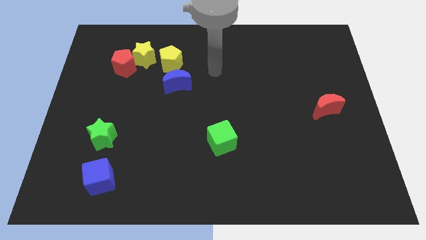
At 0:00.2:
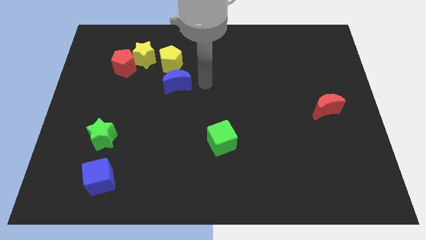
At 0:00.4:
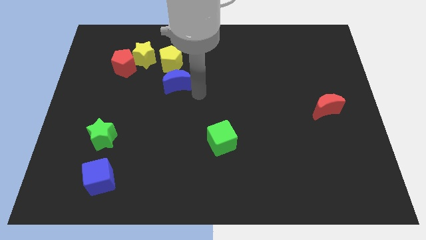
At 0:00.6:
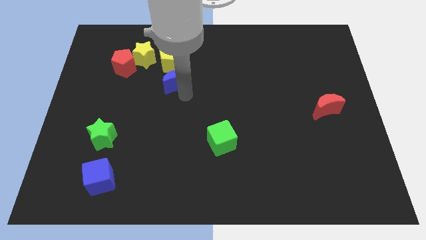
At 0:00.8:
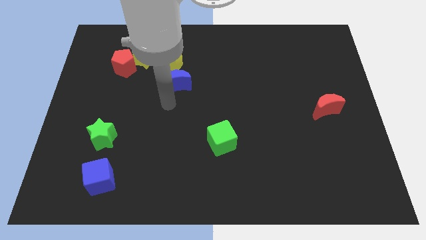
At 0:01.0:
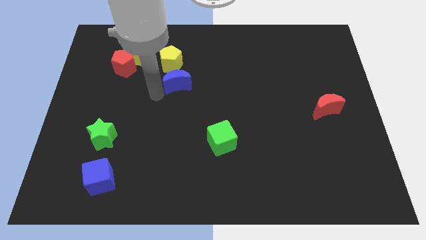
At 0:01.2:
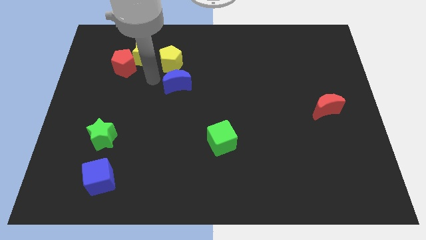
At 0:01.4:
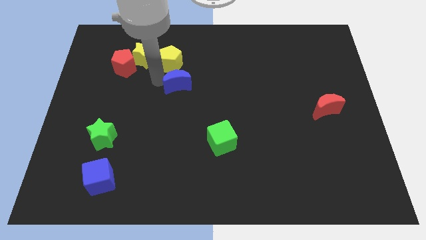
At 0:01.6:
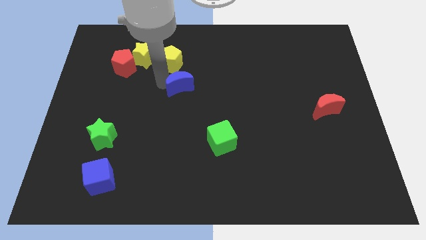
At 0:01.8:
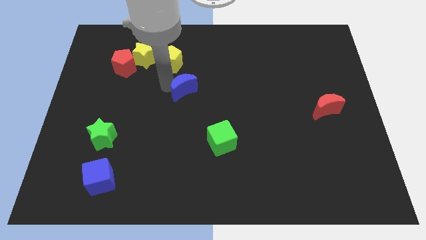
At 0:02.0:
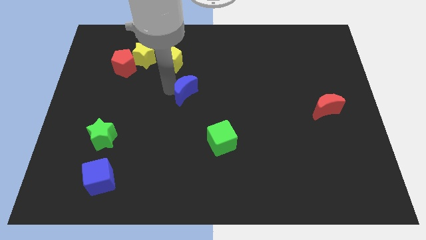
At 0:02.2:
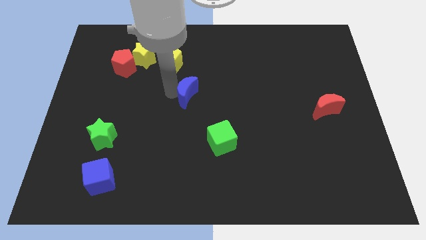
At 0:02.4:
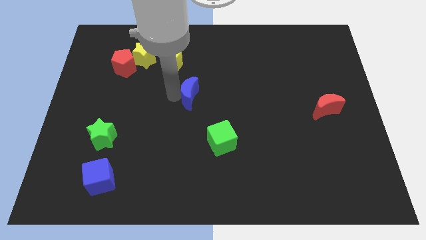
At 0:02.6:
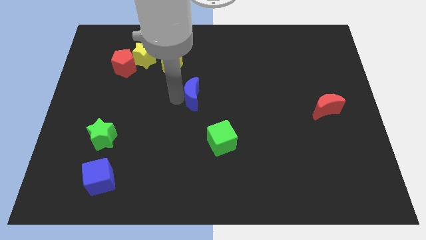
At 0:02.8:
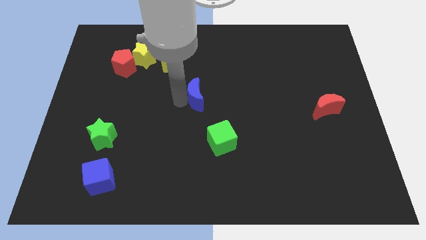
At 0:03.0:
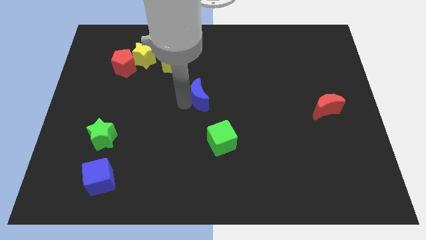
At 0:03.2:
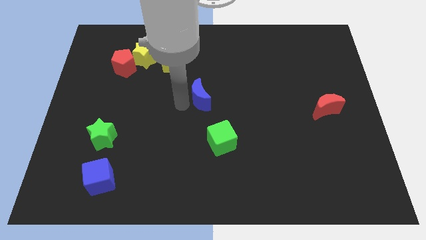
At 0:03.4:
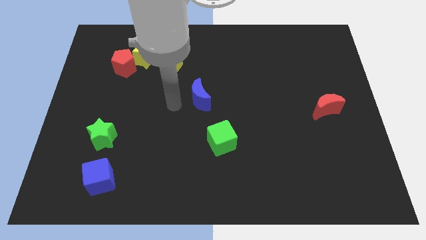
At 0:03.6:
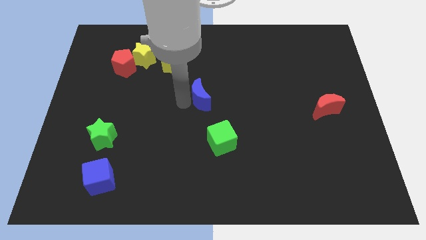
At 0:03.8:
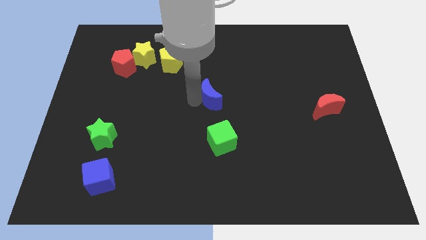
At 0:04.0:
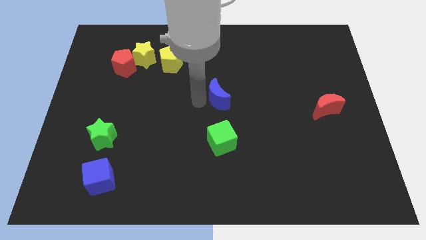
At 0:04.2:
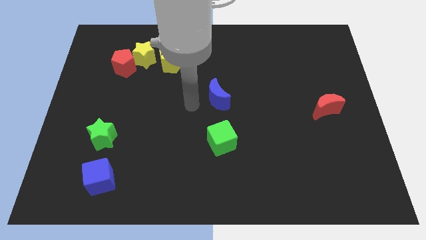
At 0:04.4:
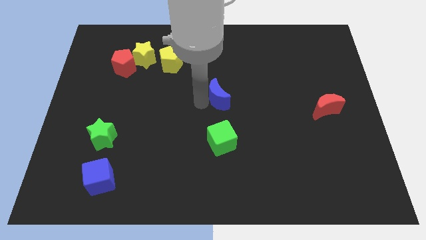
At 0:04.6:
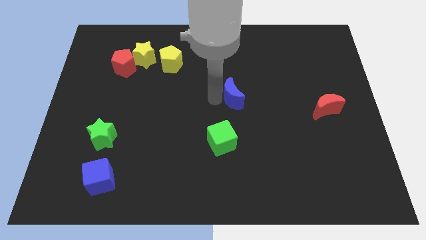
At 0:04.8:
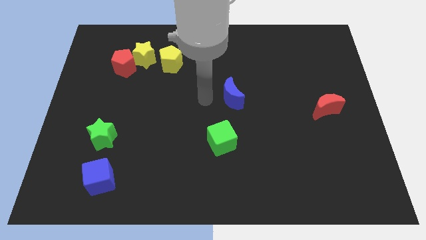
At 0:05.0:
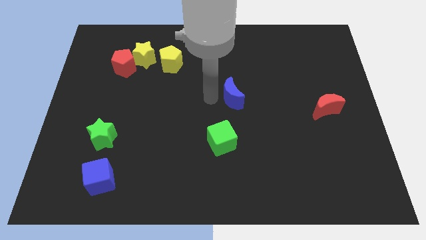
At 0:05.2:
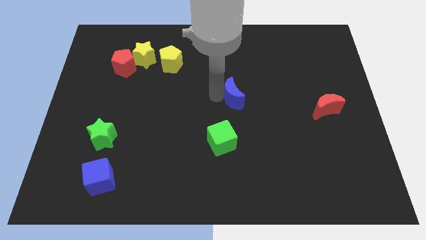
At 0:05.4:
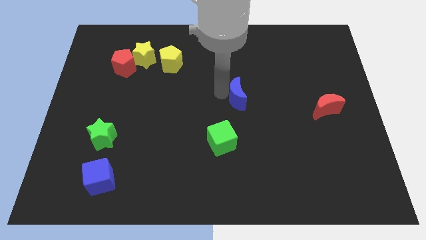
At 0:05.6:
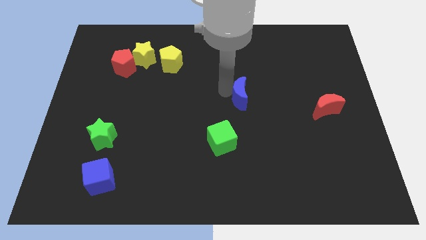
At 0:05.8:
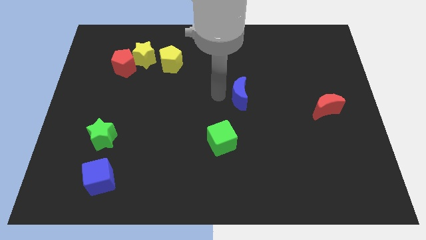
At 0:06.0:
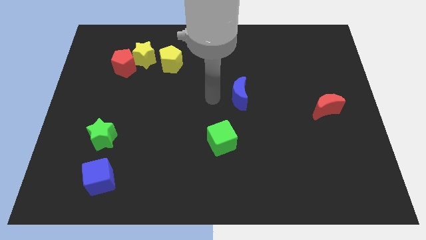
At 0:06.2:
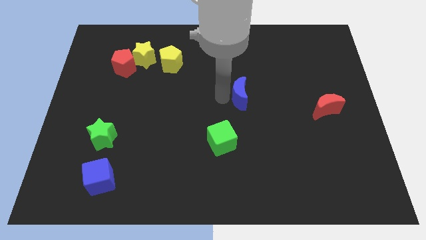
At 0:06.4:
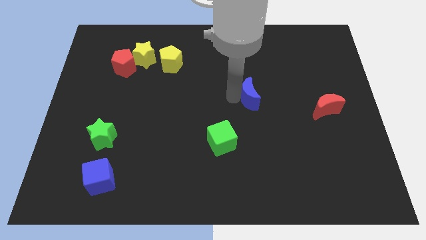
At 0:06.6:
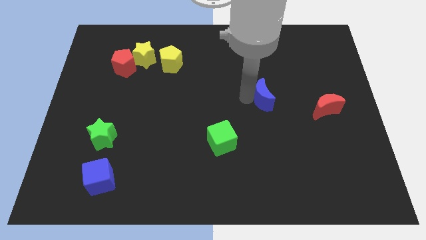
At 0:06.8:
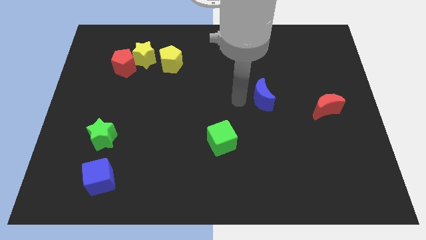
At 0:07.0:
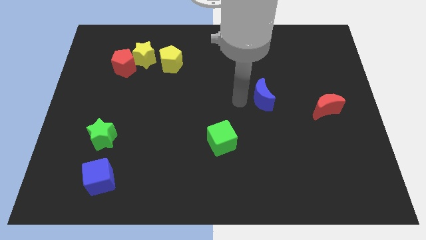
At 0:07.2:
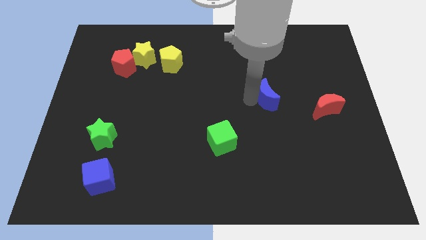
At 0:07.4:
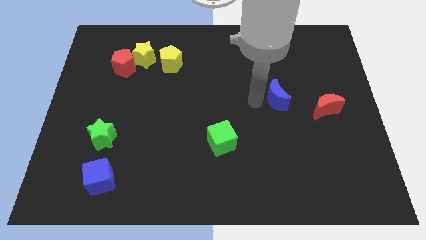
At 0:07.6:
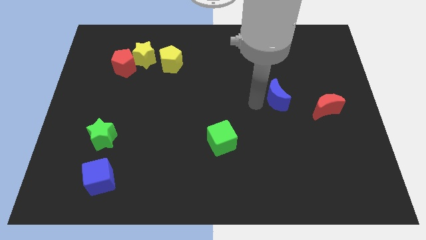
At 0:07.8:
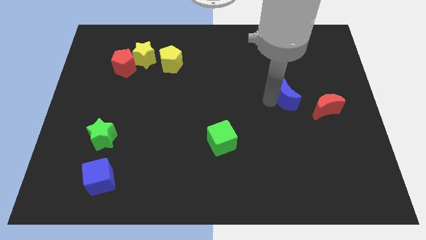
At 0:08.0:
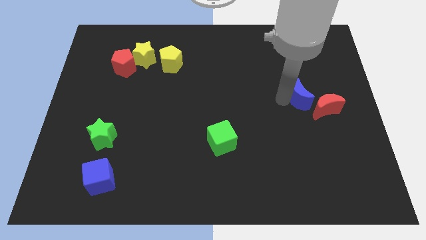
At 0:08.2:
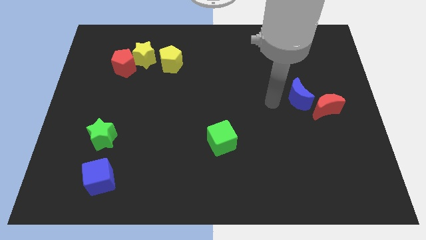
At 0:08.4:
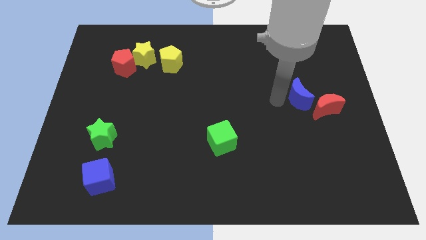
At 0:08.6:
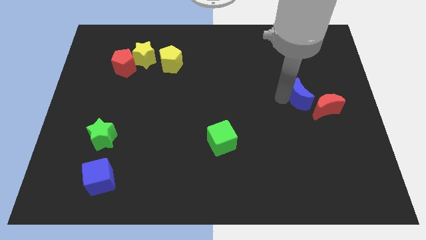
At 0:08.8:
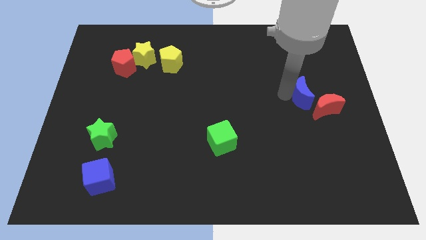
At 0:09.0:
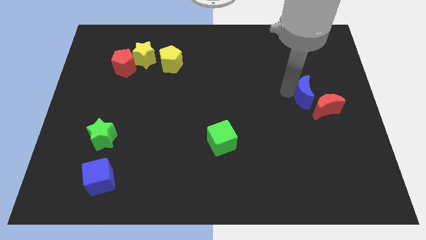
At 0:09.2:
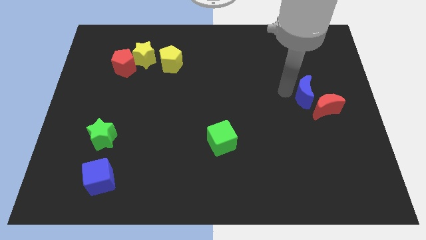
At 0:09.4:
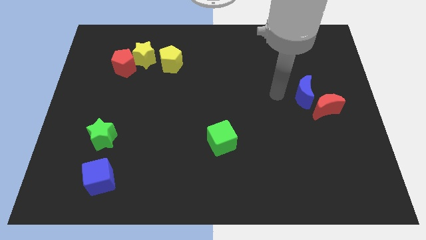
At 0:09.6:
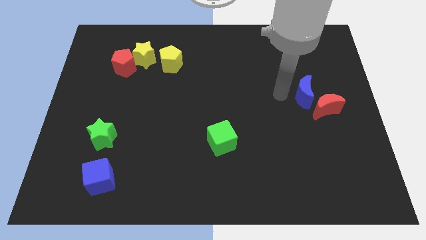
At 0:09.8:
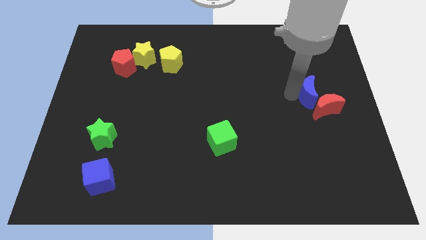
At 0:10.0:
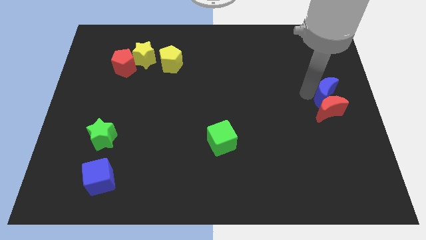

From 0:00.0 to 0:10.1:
push the blue moon to the center right

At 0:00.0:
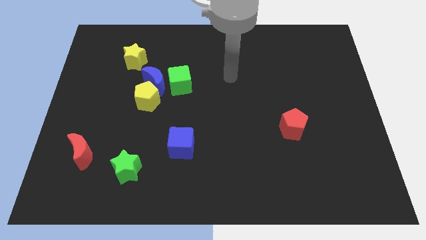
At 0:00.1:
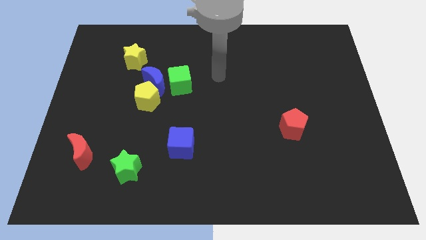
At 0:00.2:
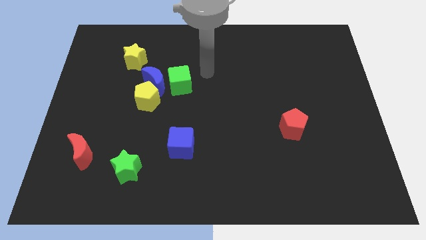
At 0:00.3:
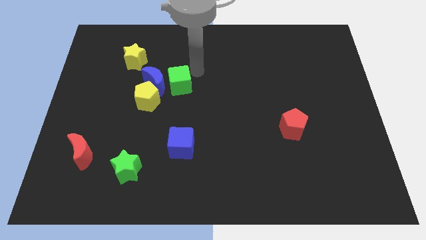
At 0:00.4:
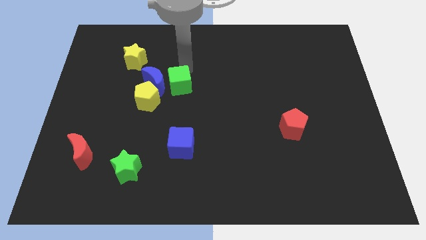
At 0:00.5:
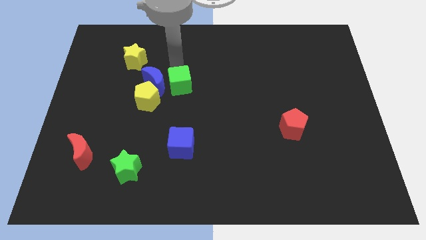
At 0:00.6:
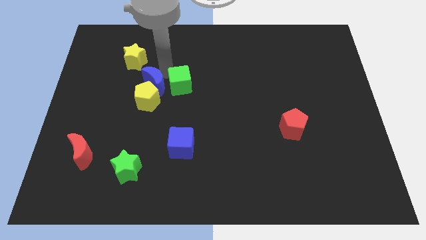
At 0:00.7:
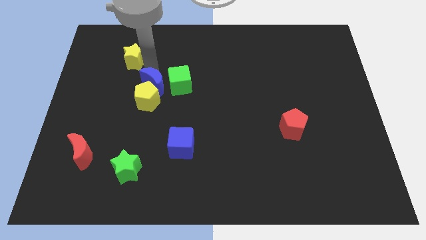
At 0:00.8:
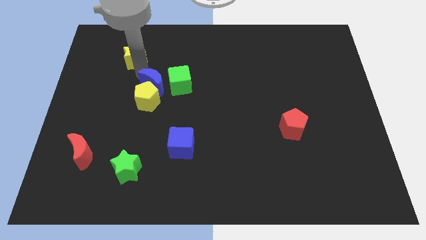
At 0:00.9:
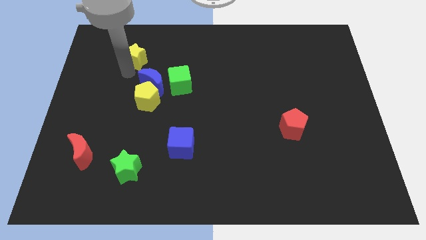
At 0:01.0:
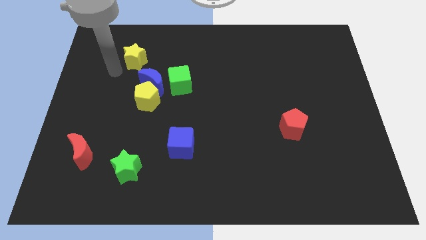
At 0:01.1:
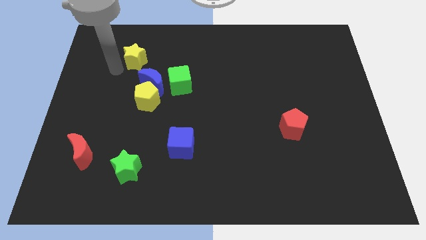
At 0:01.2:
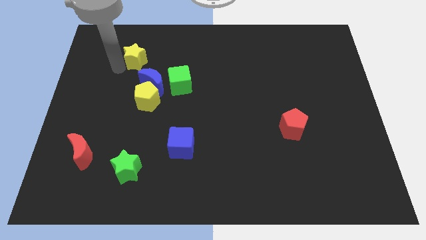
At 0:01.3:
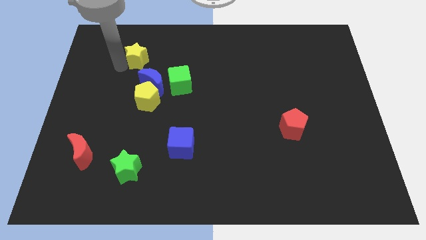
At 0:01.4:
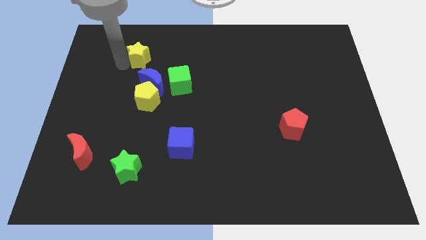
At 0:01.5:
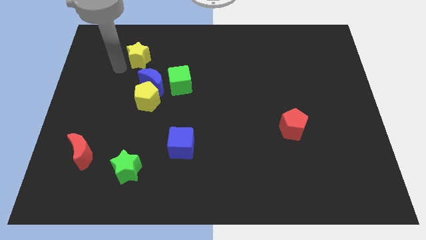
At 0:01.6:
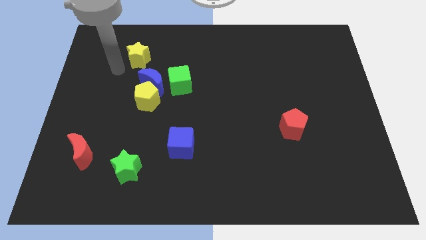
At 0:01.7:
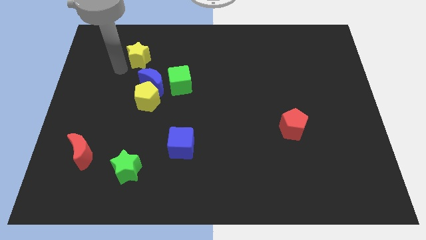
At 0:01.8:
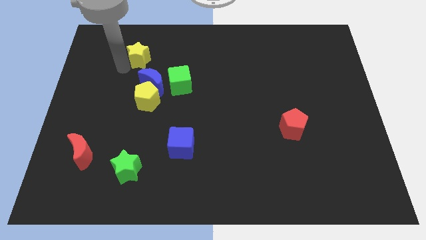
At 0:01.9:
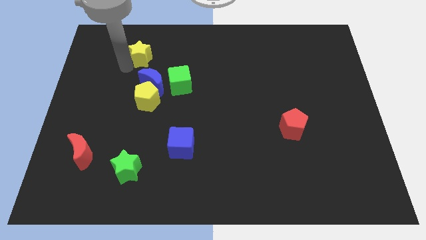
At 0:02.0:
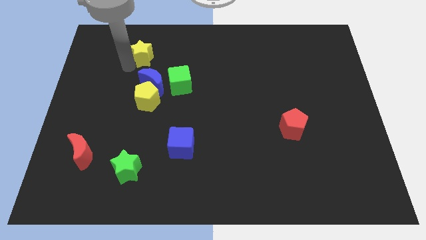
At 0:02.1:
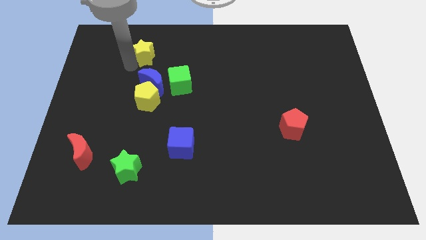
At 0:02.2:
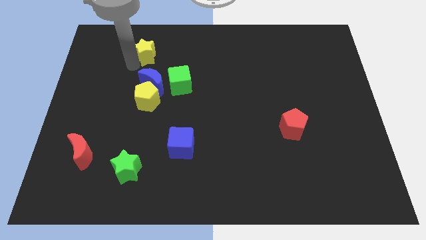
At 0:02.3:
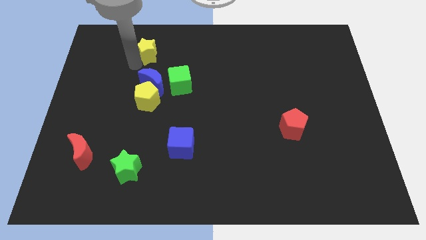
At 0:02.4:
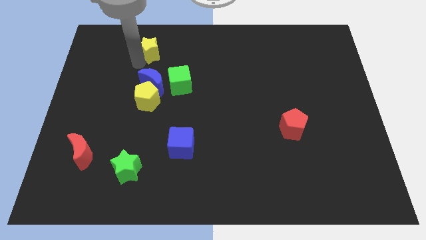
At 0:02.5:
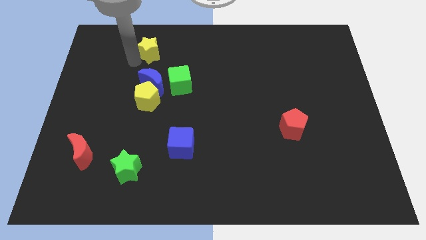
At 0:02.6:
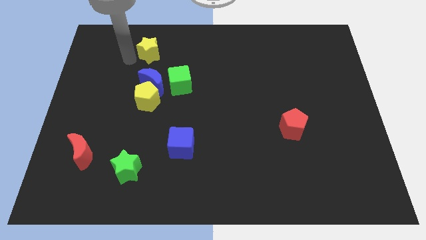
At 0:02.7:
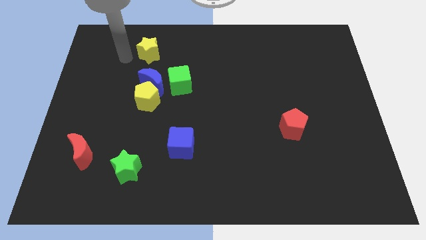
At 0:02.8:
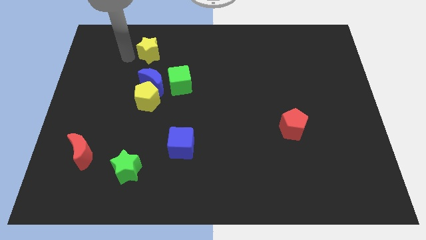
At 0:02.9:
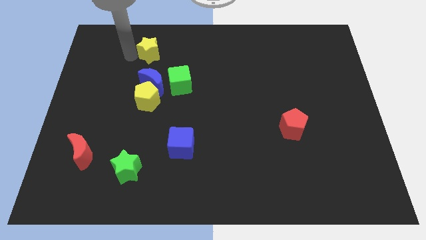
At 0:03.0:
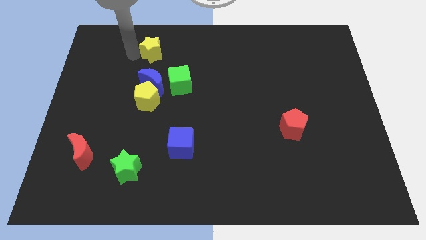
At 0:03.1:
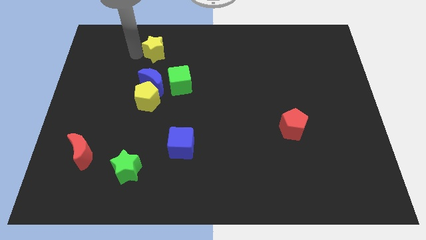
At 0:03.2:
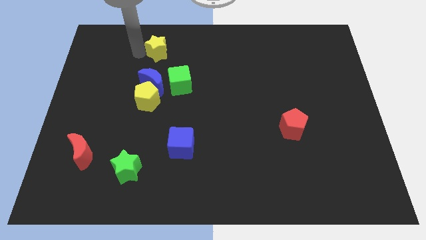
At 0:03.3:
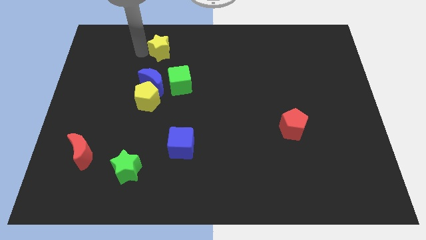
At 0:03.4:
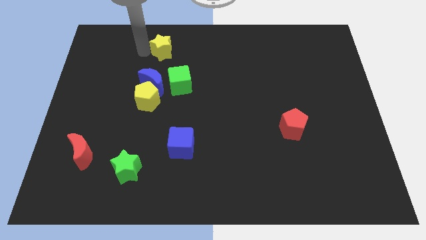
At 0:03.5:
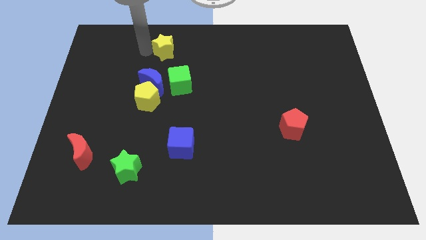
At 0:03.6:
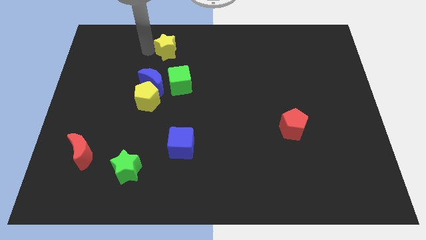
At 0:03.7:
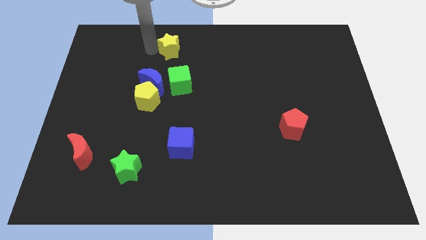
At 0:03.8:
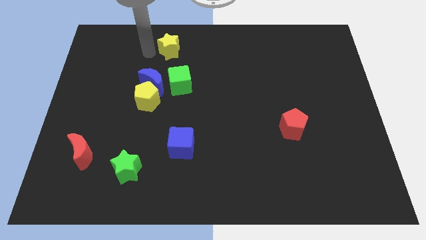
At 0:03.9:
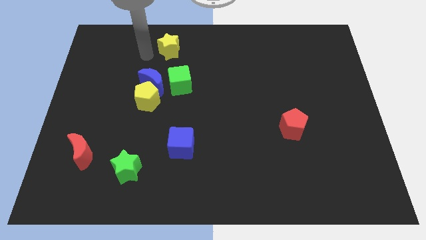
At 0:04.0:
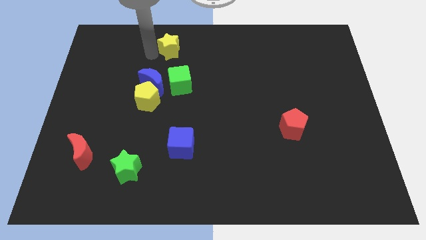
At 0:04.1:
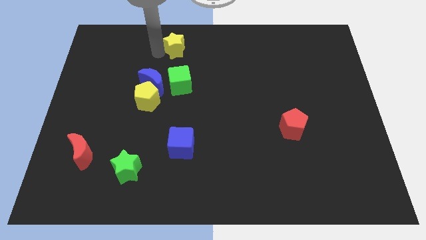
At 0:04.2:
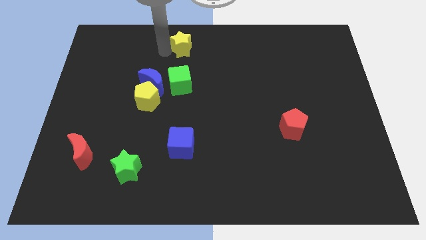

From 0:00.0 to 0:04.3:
put the yellow star to the towards your base
